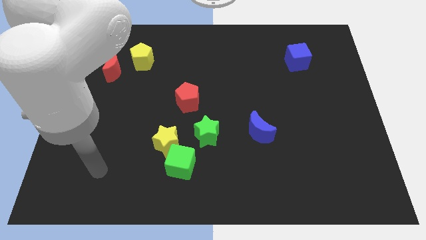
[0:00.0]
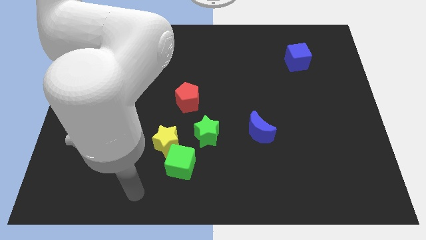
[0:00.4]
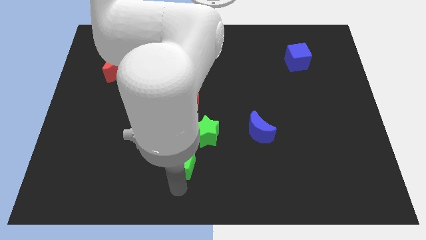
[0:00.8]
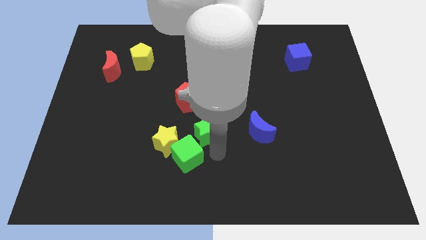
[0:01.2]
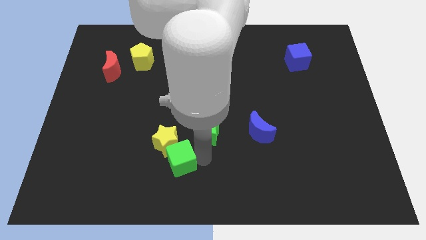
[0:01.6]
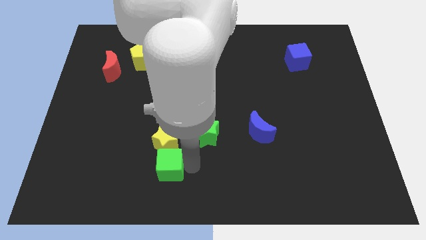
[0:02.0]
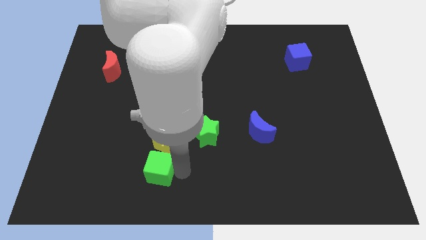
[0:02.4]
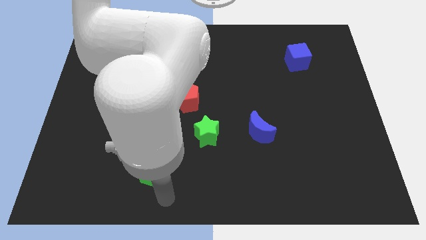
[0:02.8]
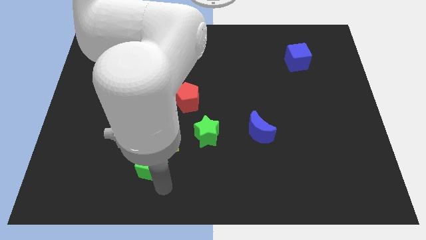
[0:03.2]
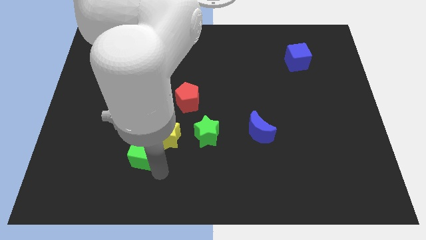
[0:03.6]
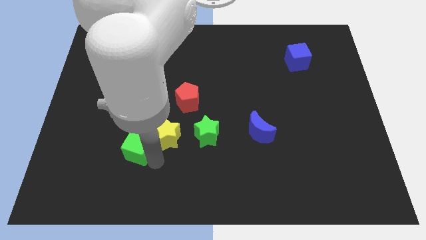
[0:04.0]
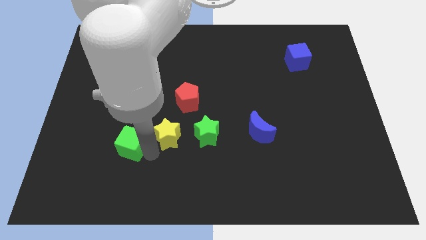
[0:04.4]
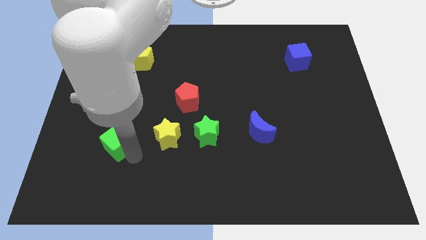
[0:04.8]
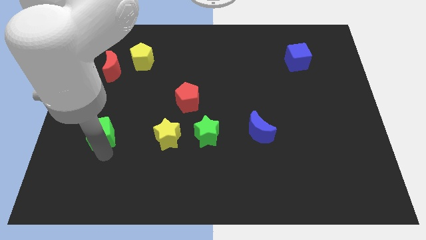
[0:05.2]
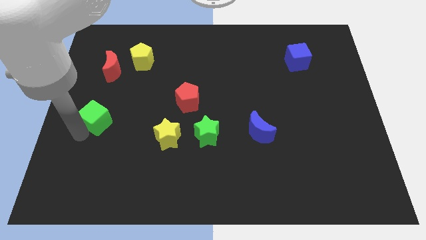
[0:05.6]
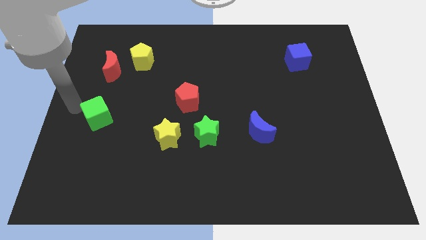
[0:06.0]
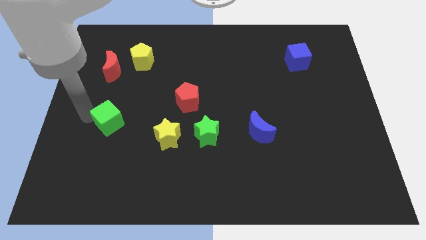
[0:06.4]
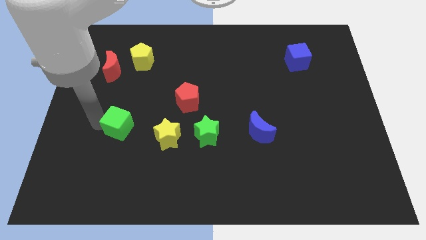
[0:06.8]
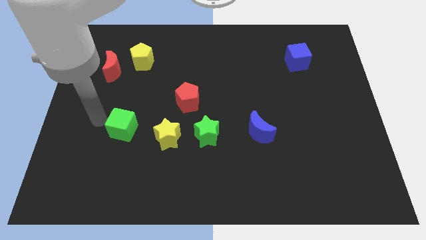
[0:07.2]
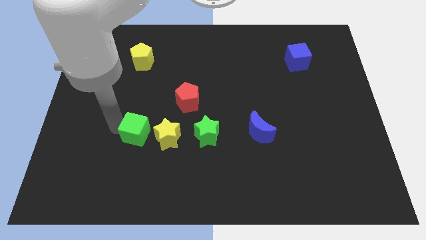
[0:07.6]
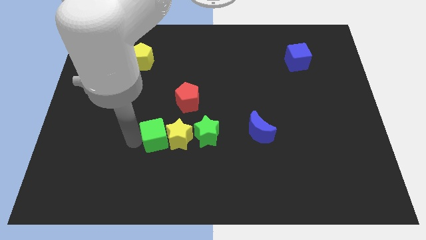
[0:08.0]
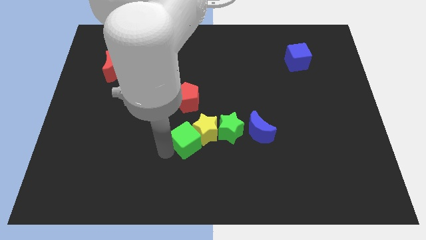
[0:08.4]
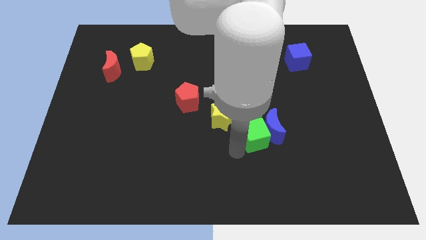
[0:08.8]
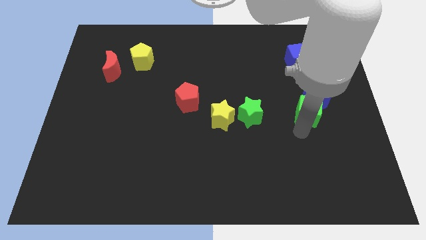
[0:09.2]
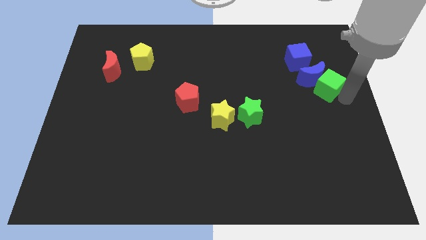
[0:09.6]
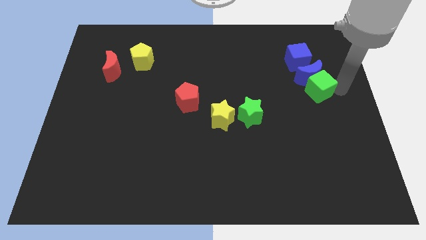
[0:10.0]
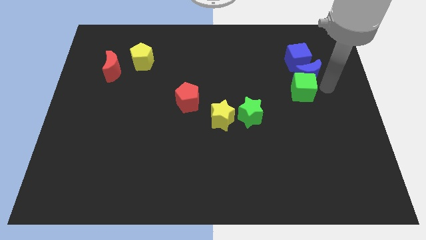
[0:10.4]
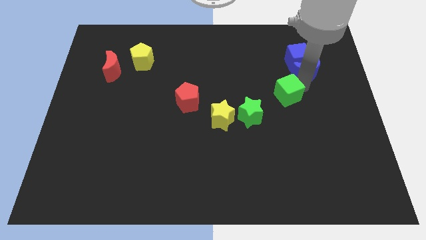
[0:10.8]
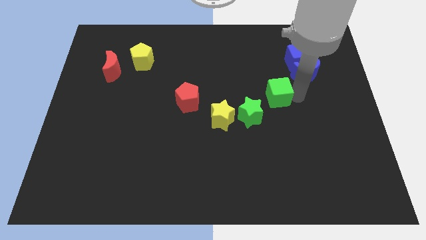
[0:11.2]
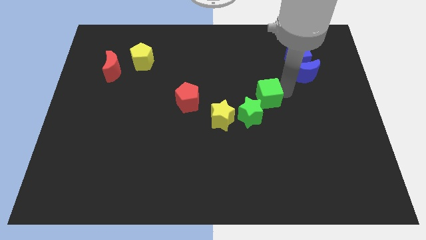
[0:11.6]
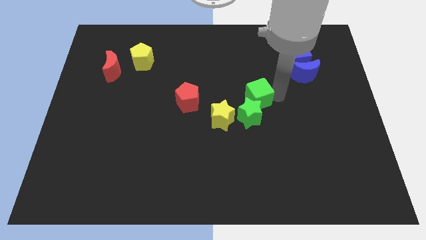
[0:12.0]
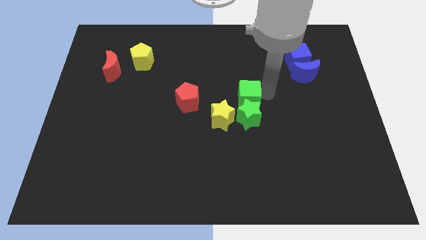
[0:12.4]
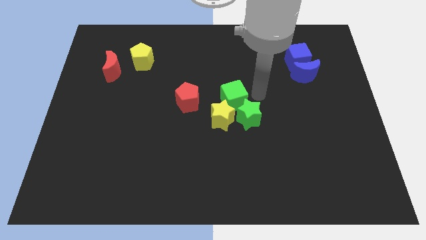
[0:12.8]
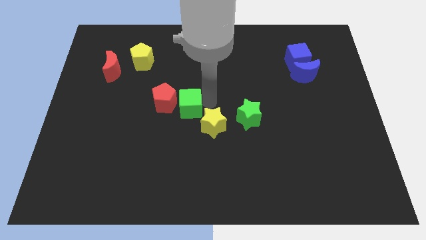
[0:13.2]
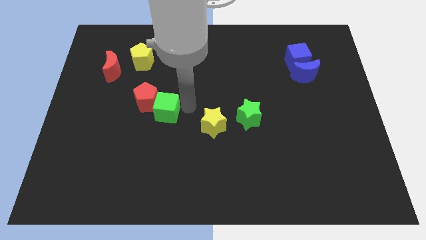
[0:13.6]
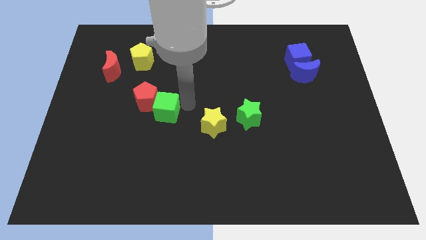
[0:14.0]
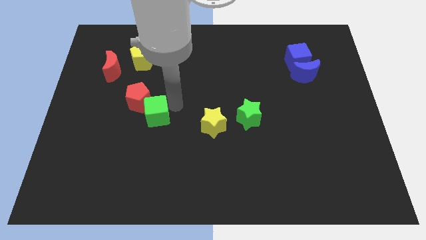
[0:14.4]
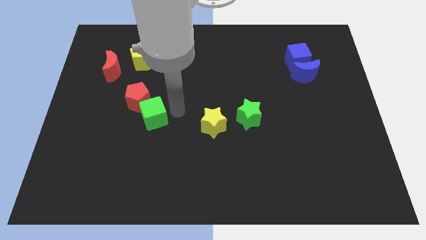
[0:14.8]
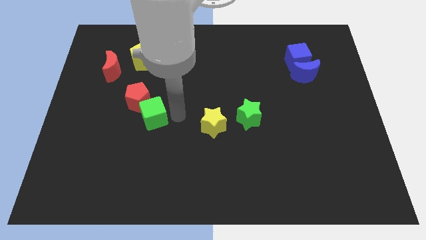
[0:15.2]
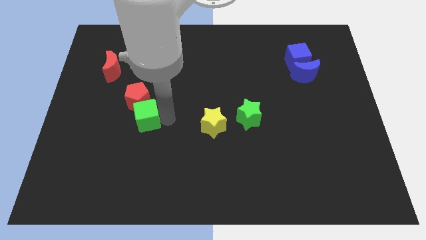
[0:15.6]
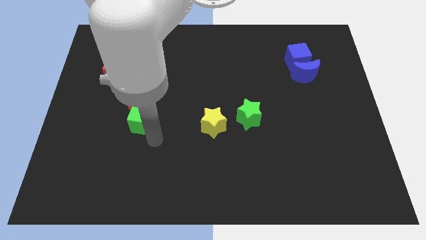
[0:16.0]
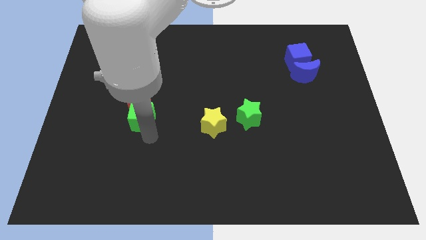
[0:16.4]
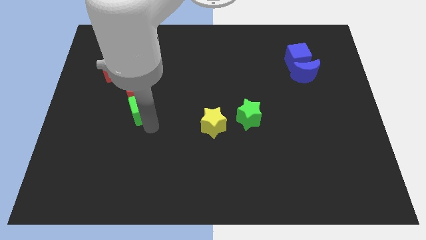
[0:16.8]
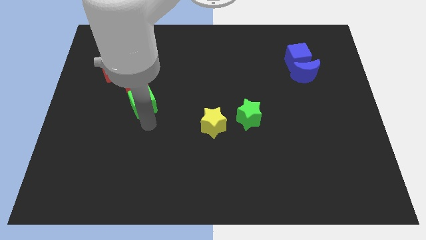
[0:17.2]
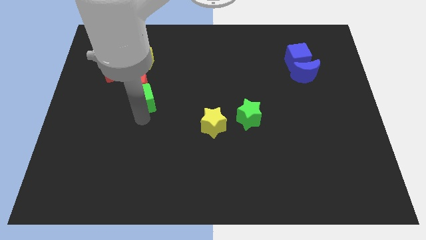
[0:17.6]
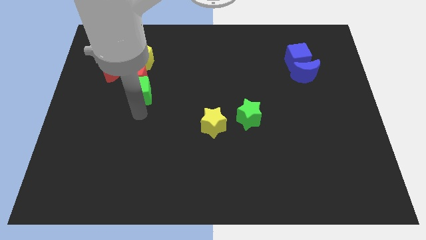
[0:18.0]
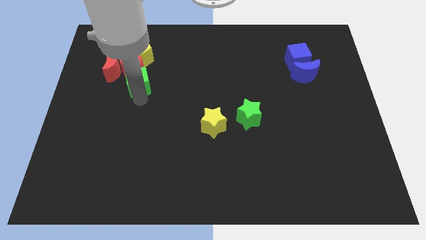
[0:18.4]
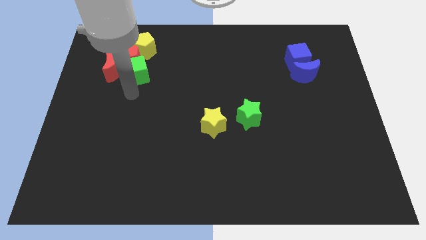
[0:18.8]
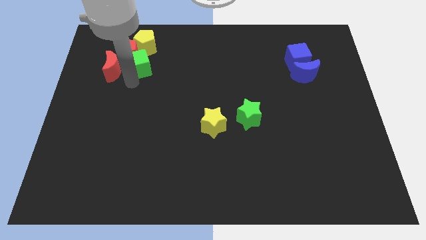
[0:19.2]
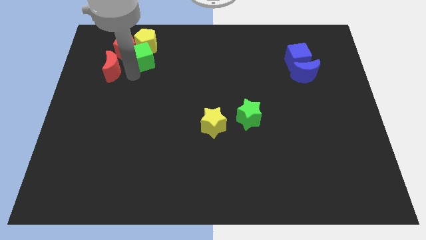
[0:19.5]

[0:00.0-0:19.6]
put the green cube to the yellow pentagon

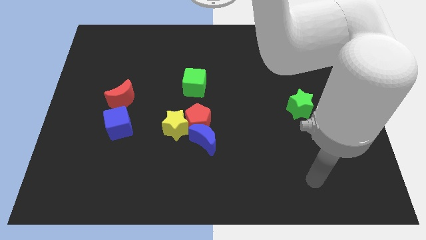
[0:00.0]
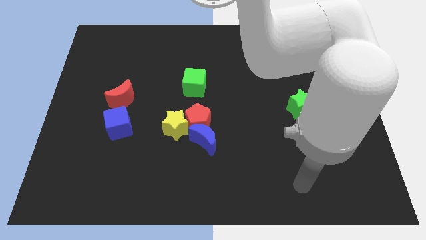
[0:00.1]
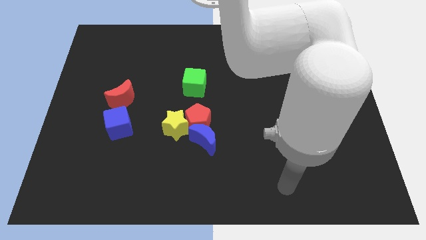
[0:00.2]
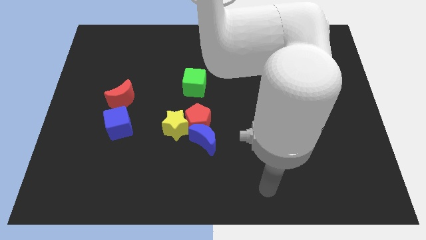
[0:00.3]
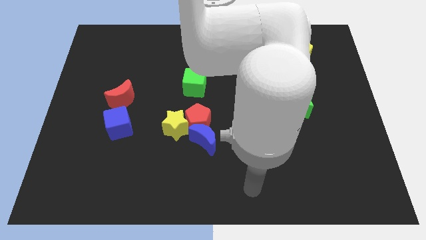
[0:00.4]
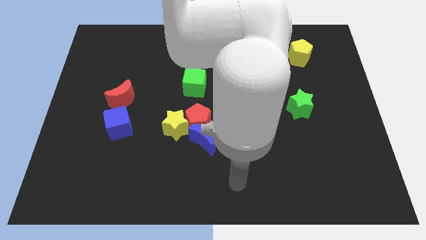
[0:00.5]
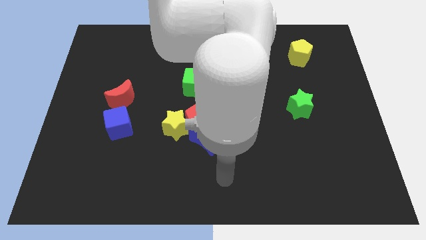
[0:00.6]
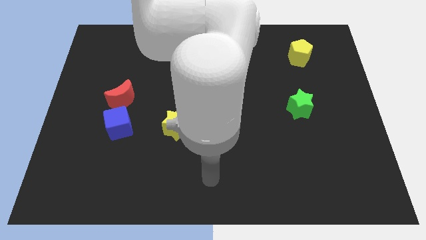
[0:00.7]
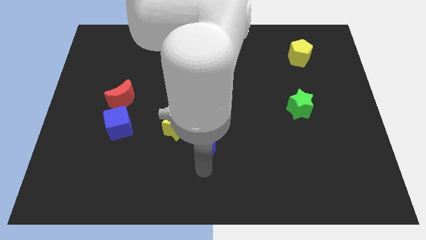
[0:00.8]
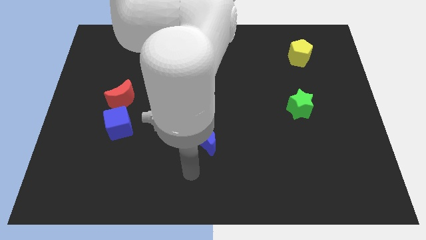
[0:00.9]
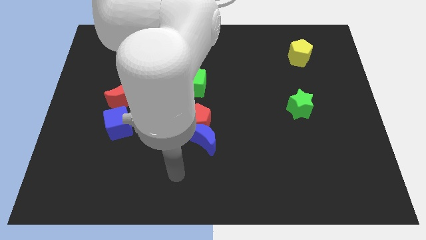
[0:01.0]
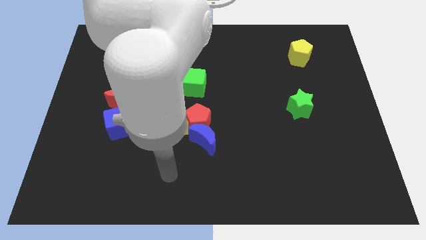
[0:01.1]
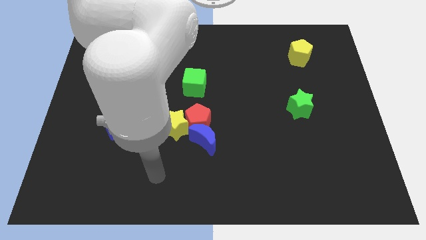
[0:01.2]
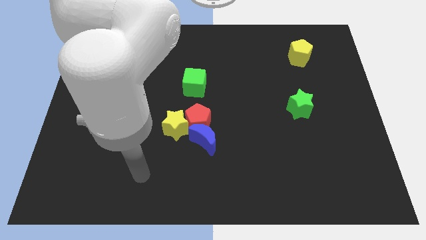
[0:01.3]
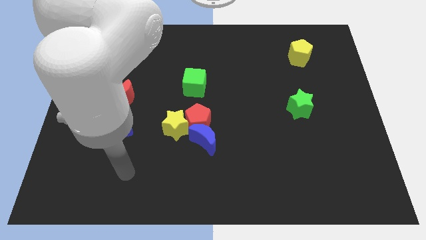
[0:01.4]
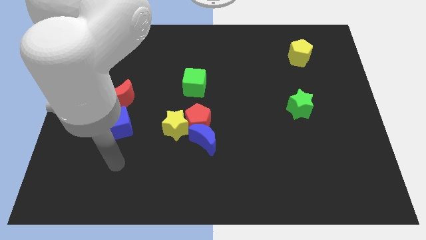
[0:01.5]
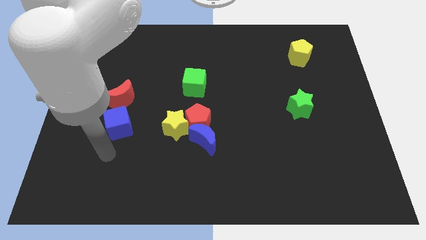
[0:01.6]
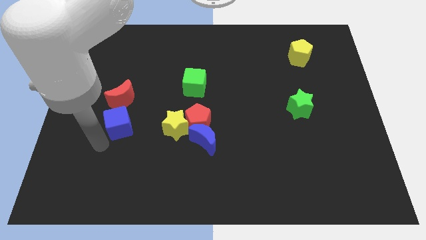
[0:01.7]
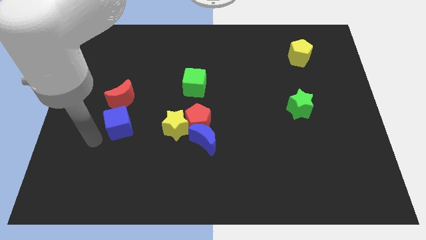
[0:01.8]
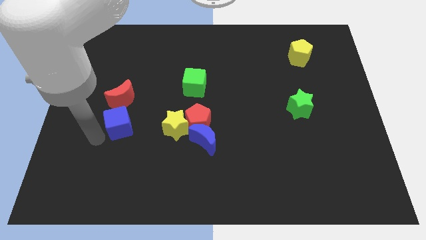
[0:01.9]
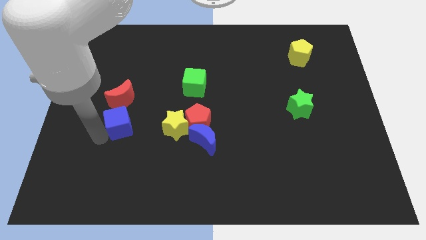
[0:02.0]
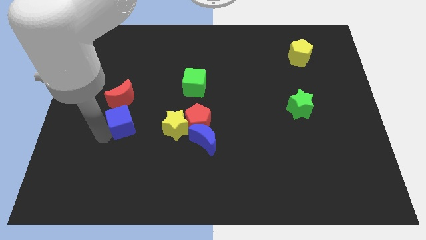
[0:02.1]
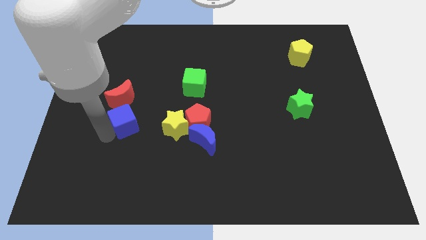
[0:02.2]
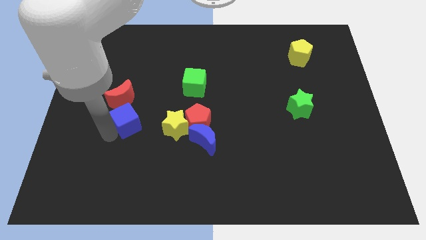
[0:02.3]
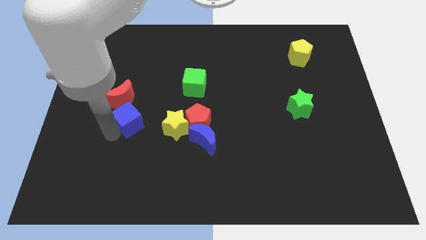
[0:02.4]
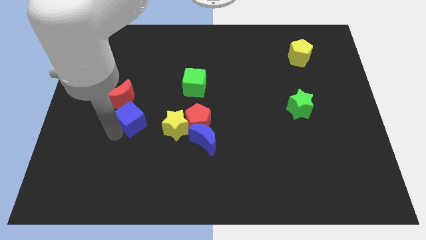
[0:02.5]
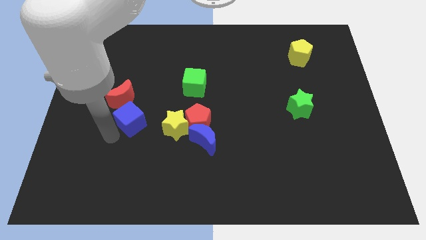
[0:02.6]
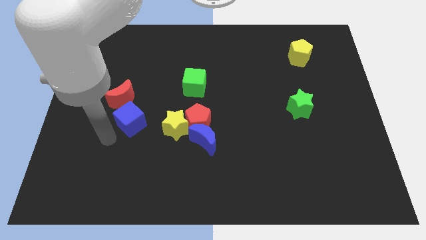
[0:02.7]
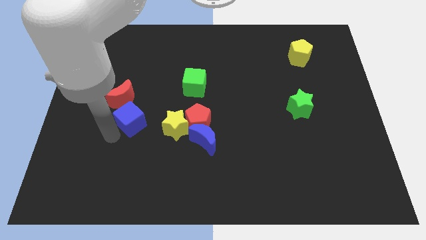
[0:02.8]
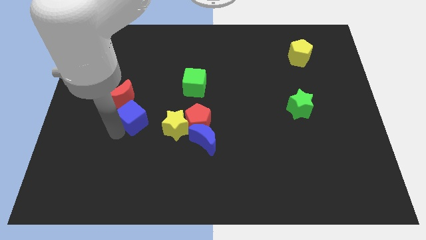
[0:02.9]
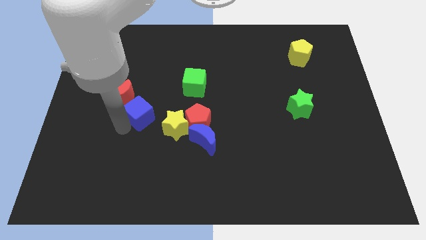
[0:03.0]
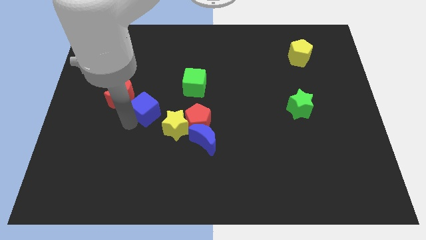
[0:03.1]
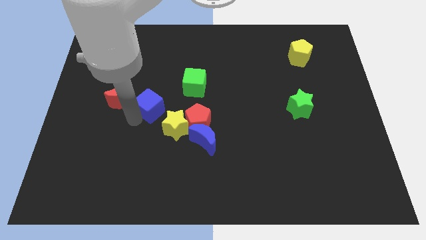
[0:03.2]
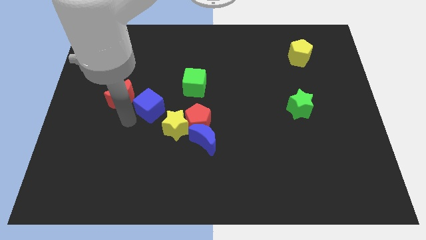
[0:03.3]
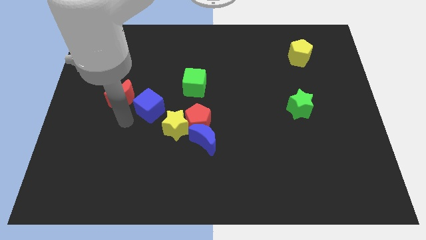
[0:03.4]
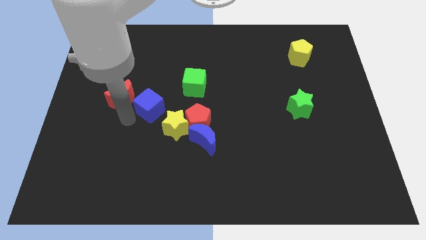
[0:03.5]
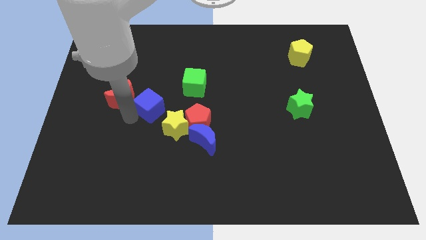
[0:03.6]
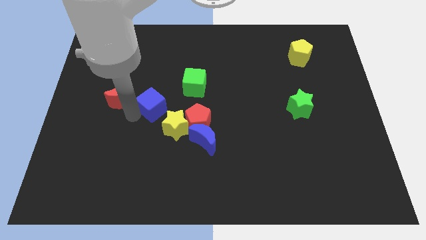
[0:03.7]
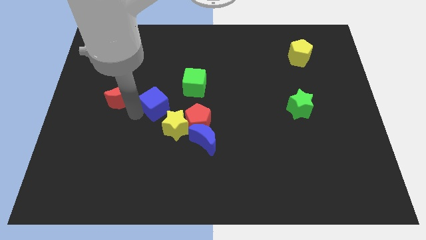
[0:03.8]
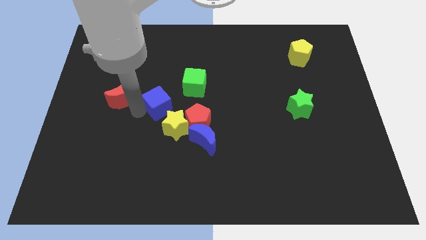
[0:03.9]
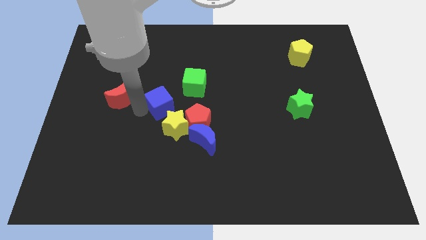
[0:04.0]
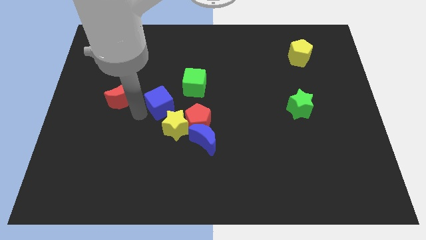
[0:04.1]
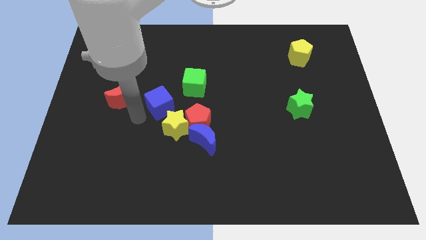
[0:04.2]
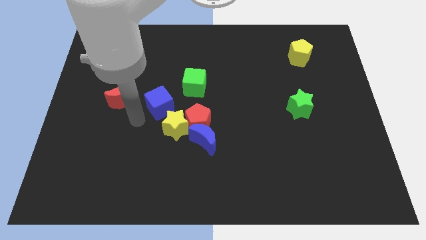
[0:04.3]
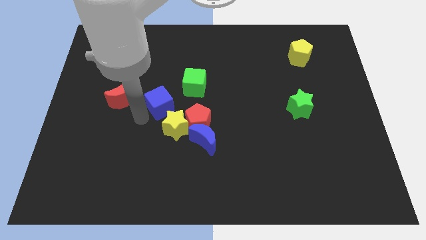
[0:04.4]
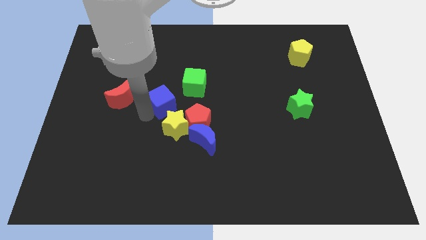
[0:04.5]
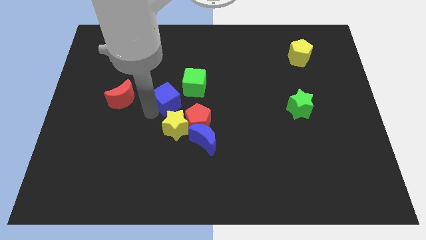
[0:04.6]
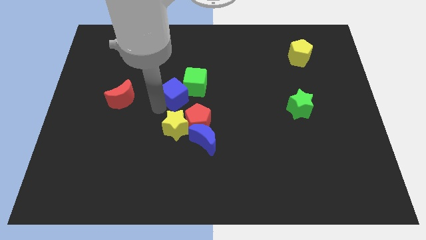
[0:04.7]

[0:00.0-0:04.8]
push the blue cube to the green cube
